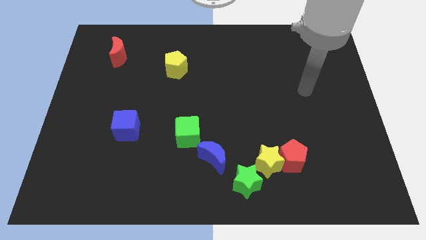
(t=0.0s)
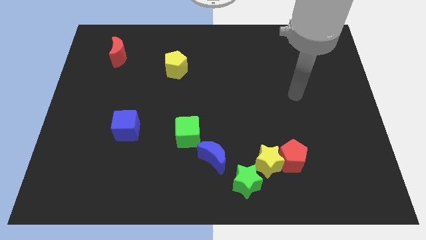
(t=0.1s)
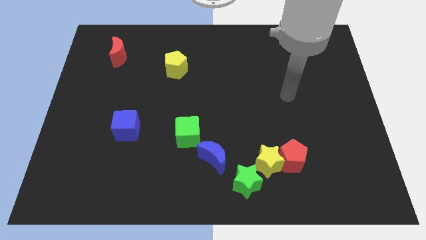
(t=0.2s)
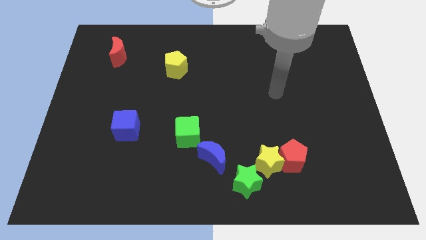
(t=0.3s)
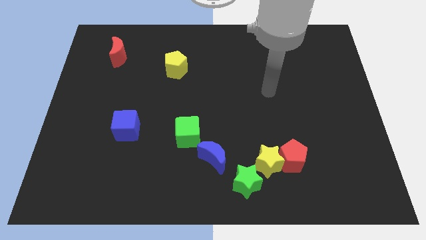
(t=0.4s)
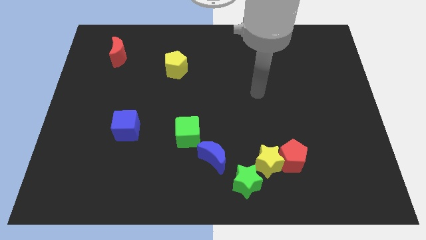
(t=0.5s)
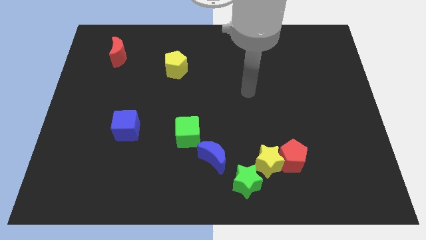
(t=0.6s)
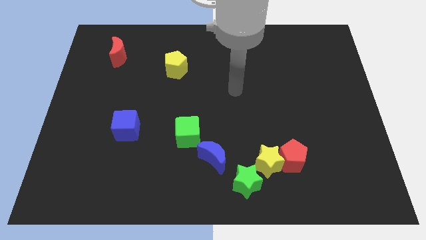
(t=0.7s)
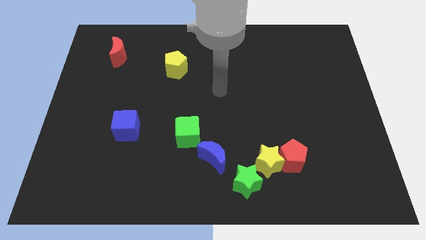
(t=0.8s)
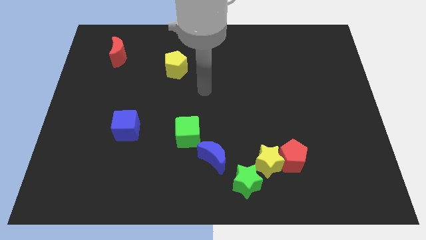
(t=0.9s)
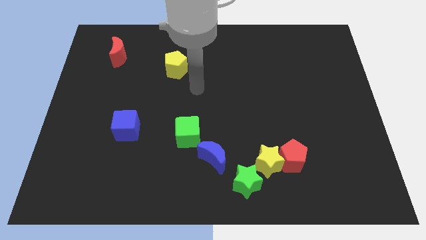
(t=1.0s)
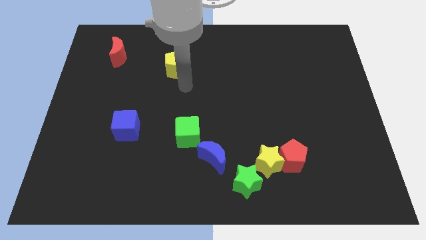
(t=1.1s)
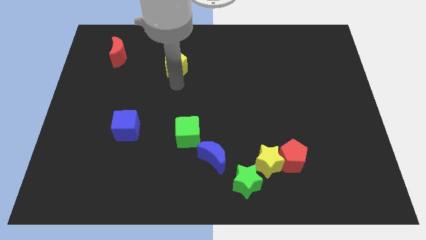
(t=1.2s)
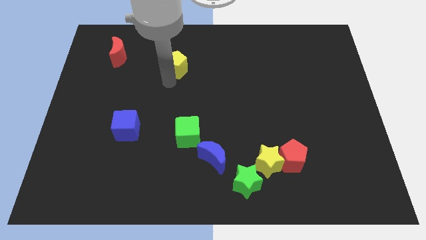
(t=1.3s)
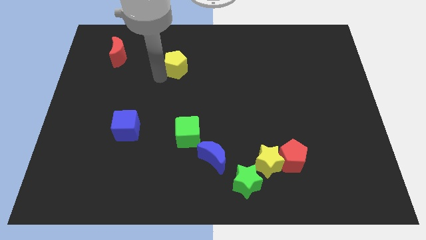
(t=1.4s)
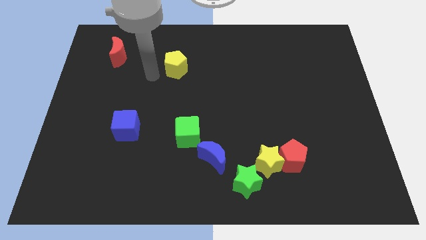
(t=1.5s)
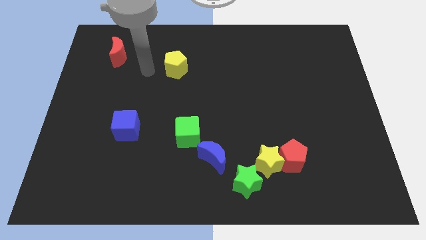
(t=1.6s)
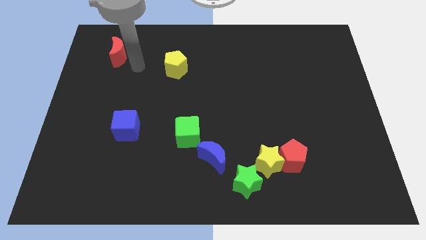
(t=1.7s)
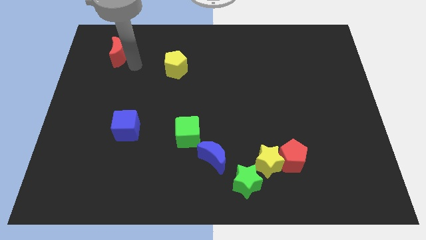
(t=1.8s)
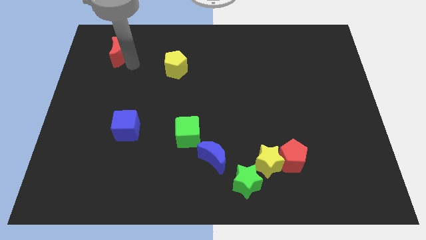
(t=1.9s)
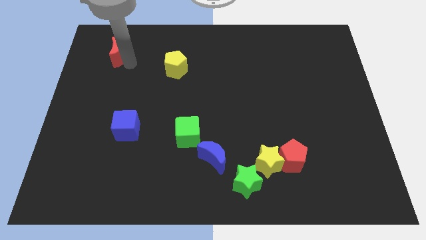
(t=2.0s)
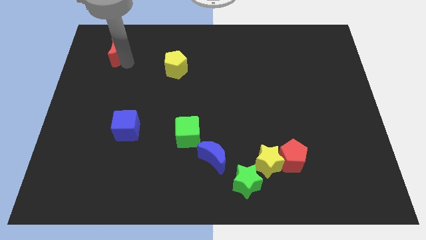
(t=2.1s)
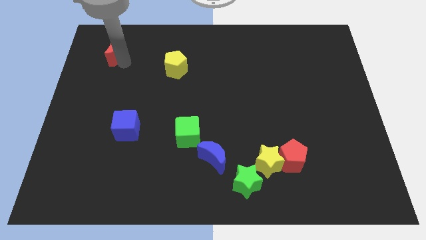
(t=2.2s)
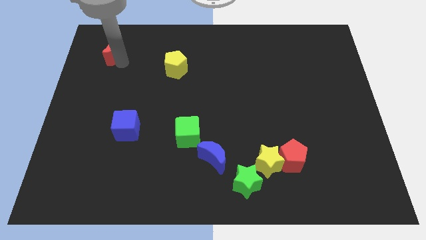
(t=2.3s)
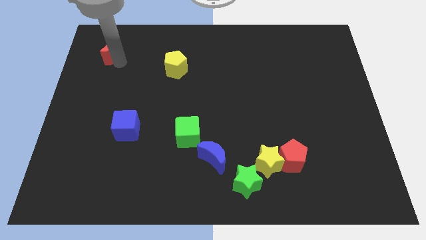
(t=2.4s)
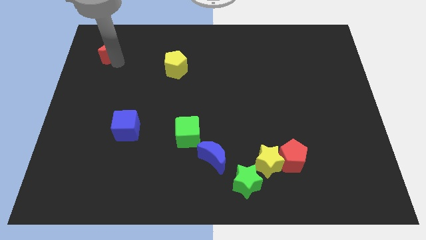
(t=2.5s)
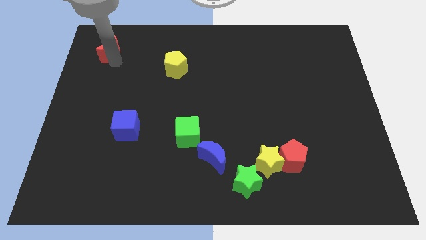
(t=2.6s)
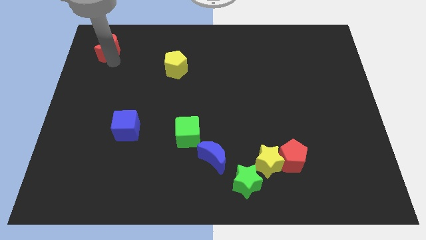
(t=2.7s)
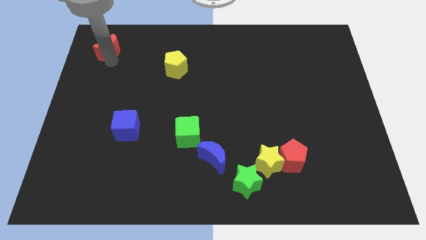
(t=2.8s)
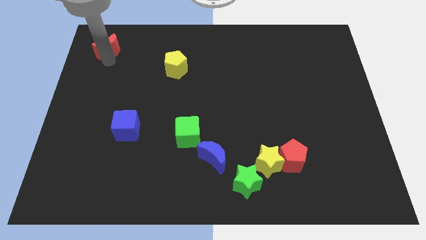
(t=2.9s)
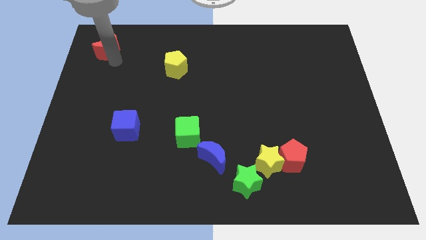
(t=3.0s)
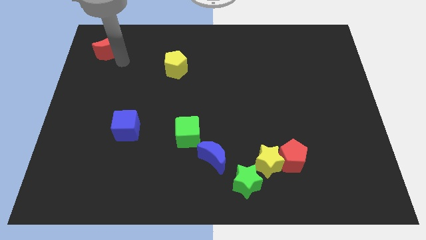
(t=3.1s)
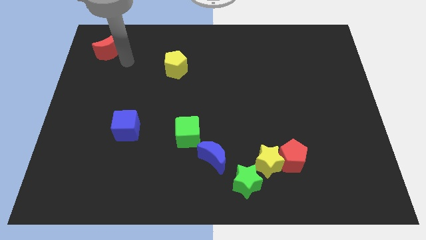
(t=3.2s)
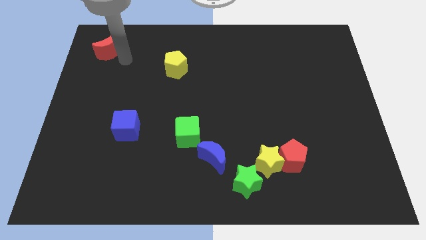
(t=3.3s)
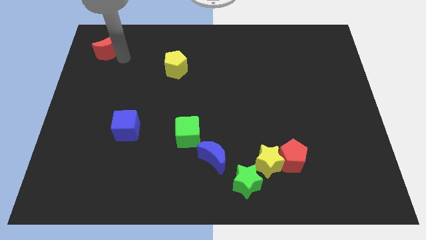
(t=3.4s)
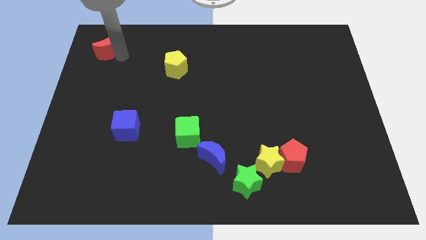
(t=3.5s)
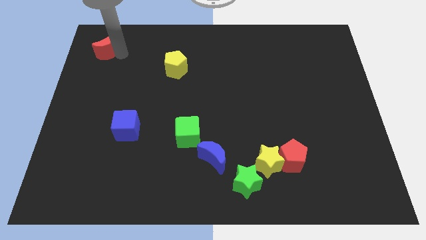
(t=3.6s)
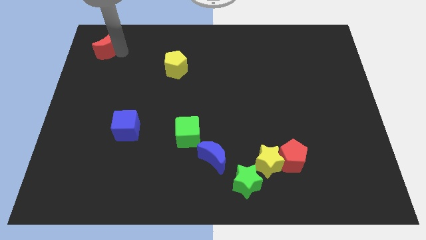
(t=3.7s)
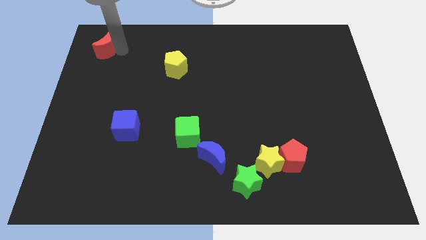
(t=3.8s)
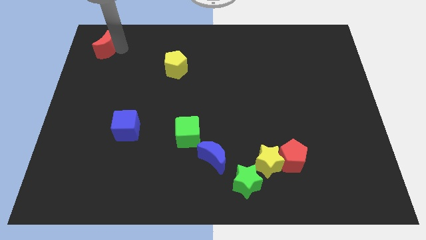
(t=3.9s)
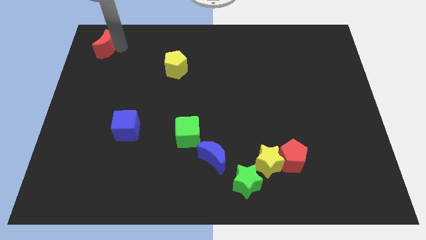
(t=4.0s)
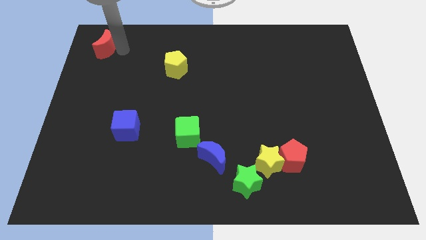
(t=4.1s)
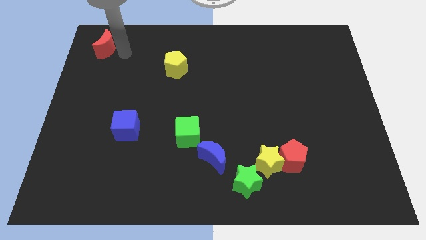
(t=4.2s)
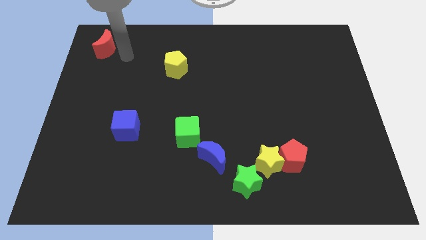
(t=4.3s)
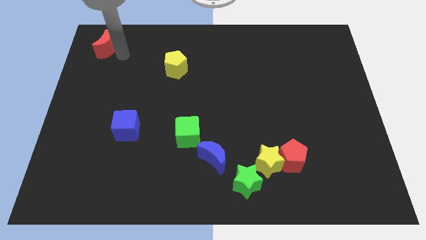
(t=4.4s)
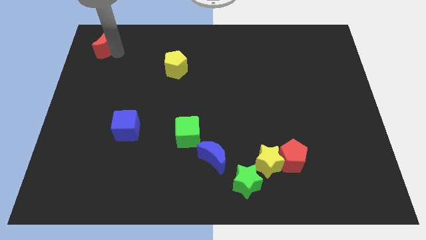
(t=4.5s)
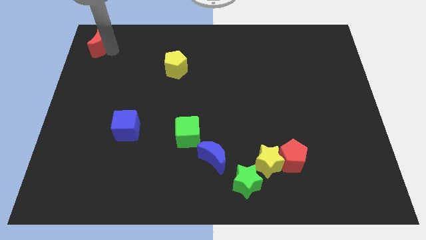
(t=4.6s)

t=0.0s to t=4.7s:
put the red moon to the upper left corner

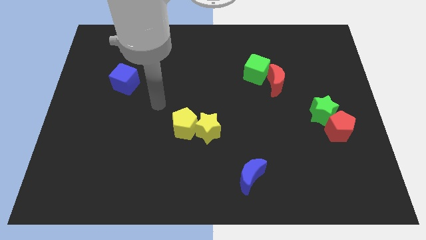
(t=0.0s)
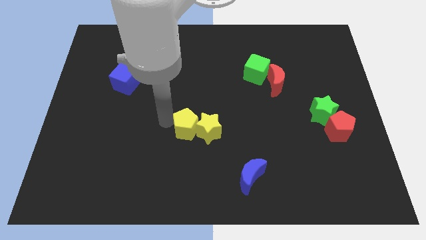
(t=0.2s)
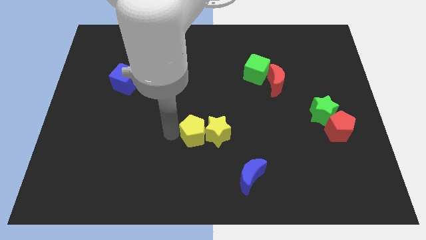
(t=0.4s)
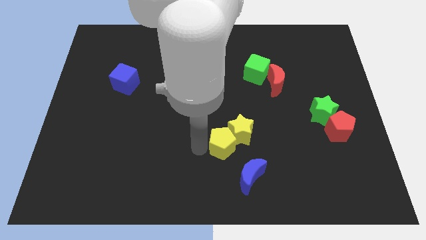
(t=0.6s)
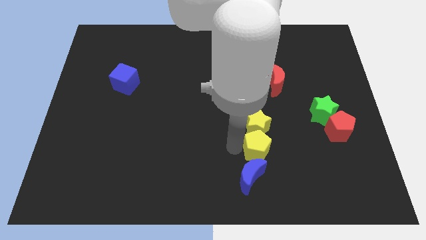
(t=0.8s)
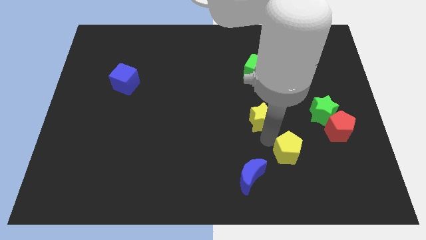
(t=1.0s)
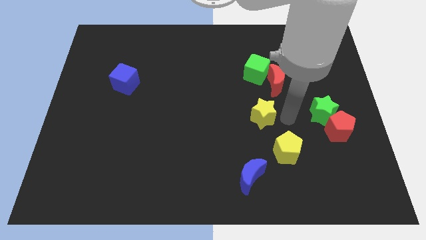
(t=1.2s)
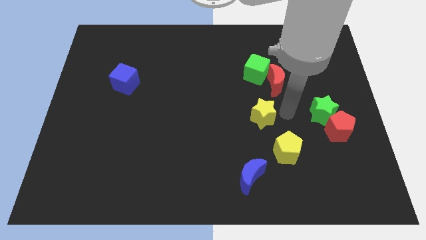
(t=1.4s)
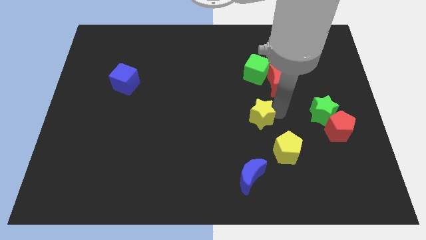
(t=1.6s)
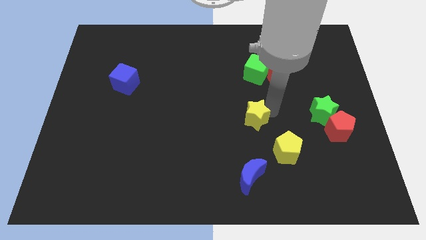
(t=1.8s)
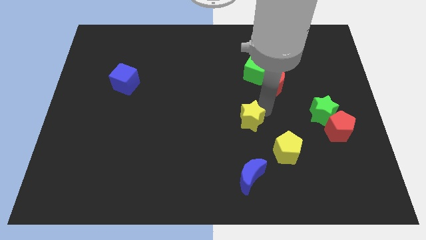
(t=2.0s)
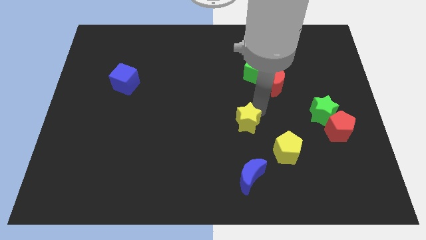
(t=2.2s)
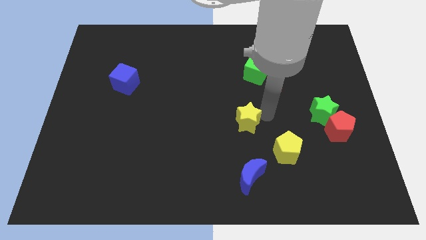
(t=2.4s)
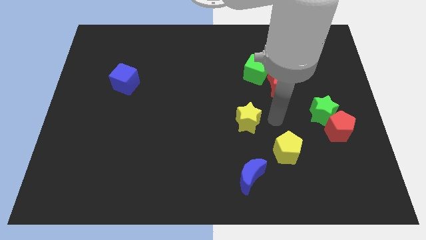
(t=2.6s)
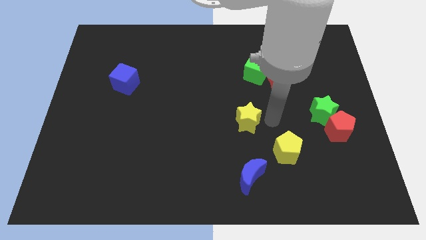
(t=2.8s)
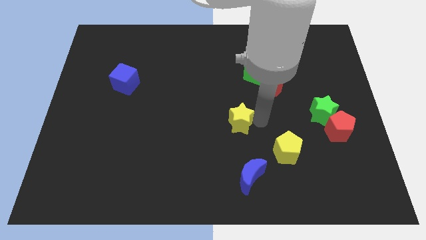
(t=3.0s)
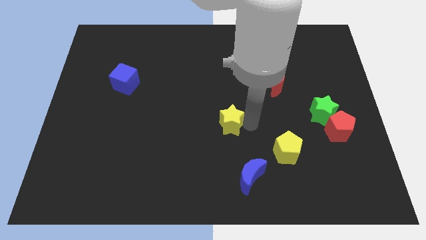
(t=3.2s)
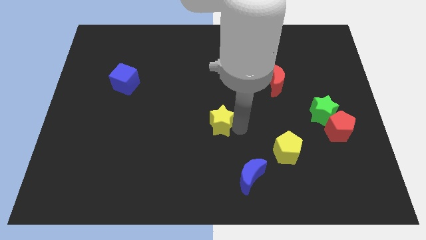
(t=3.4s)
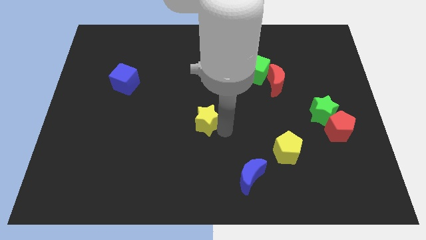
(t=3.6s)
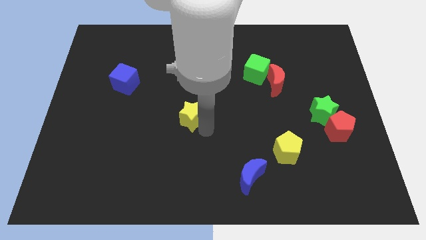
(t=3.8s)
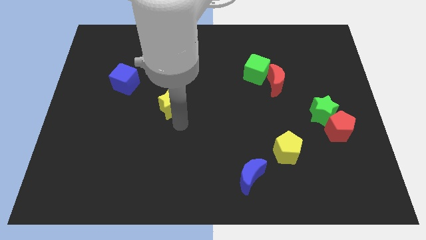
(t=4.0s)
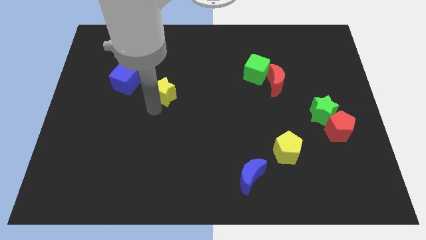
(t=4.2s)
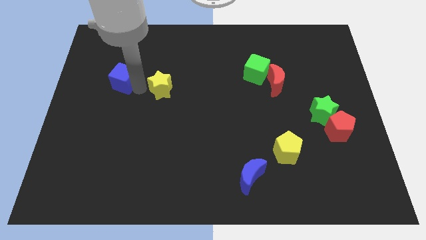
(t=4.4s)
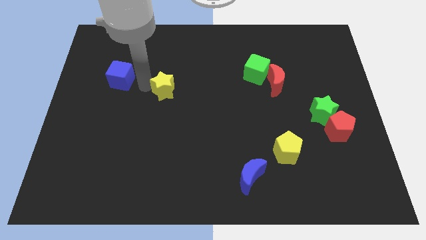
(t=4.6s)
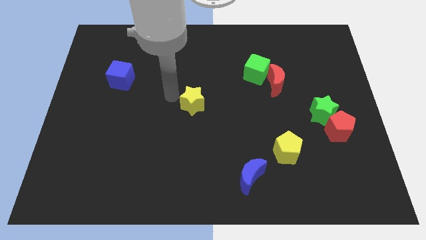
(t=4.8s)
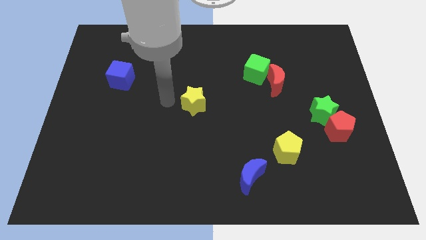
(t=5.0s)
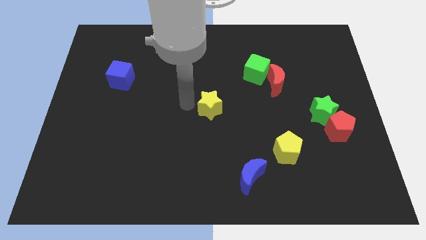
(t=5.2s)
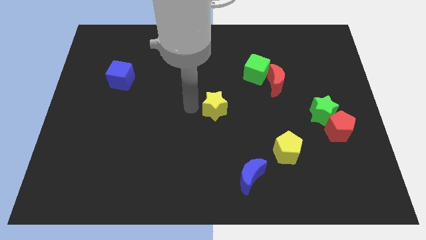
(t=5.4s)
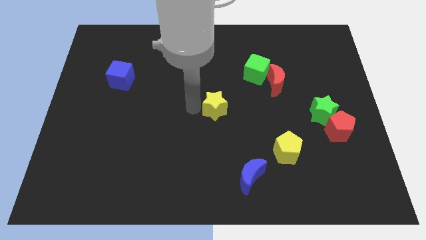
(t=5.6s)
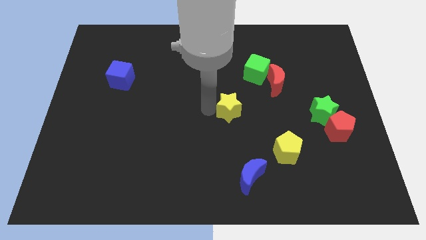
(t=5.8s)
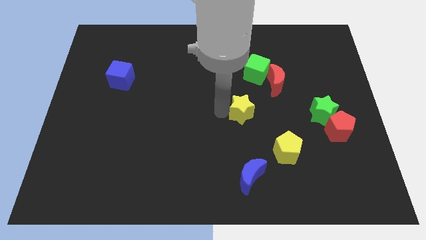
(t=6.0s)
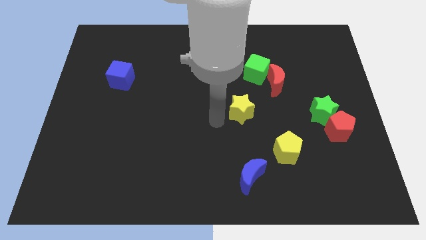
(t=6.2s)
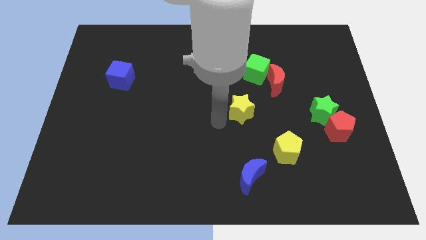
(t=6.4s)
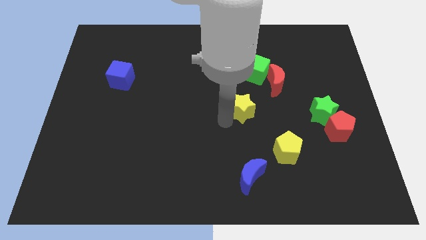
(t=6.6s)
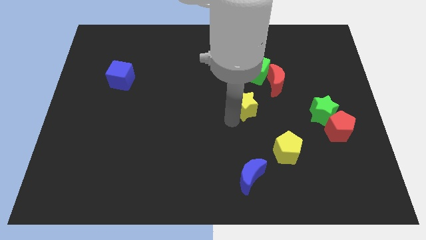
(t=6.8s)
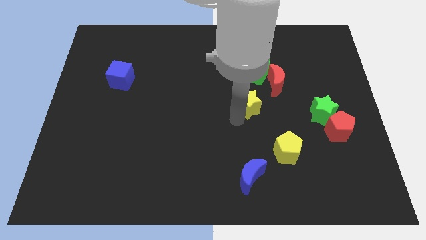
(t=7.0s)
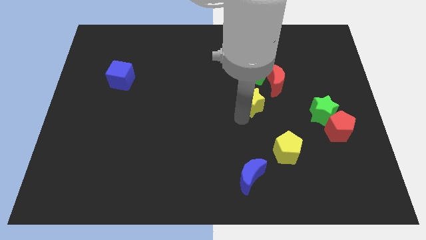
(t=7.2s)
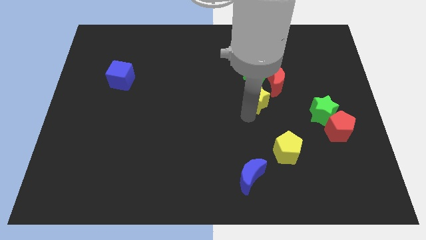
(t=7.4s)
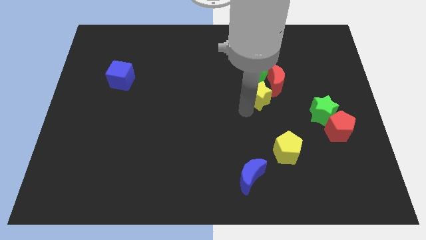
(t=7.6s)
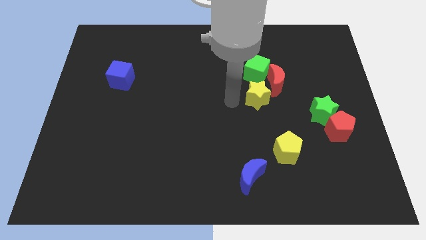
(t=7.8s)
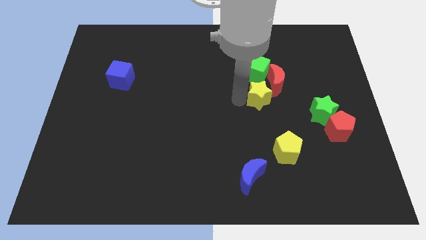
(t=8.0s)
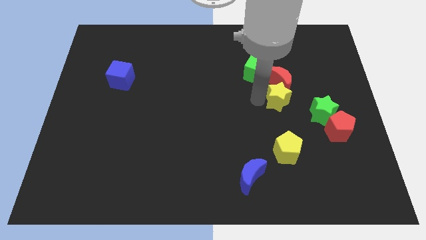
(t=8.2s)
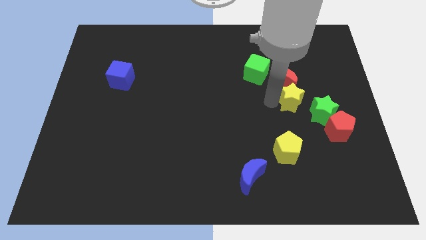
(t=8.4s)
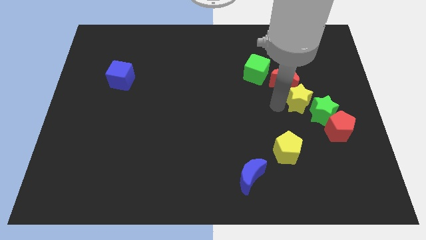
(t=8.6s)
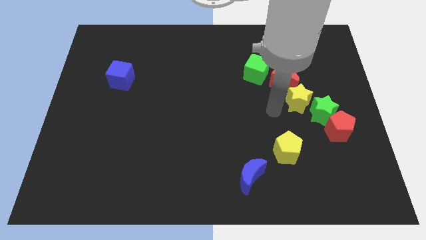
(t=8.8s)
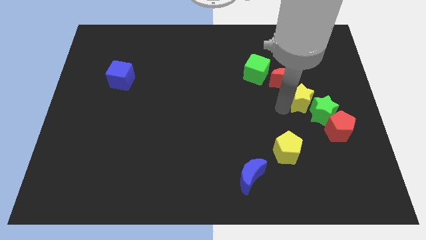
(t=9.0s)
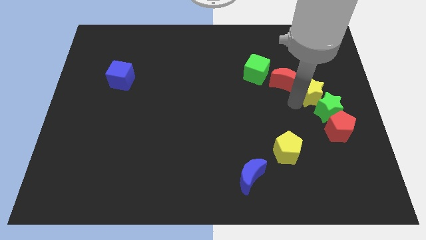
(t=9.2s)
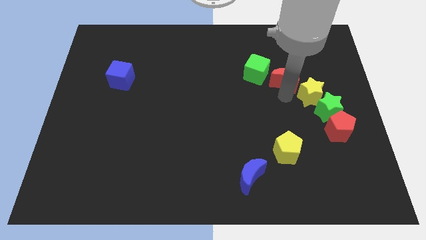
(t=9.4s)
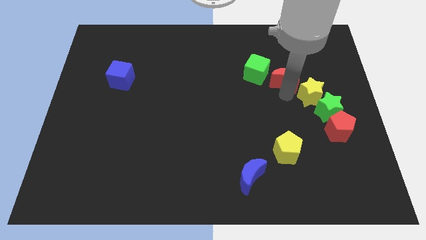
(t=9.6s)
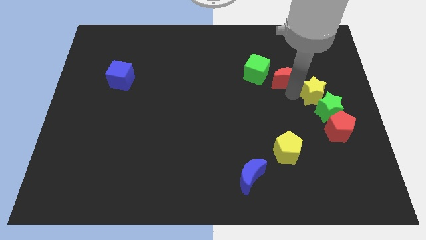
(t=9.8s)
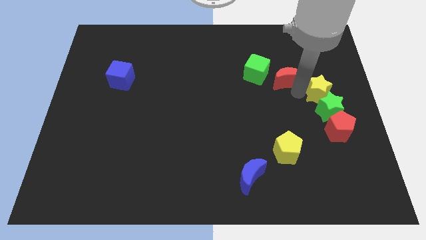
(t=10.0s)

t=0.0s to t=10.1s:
move the yellow star to the right side of the board
